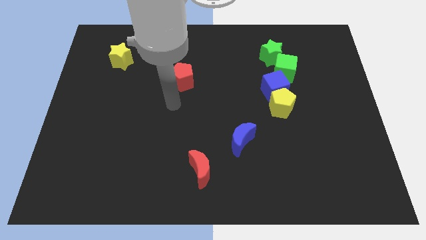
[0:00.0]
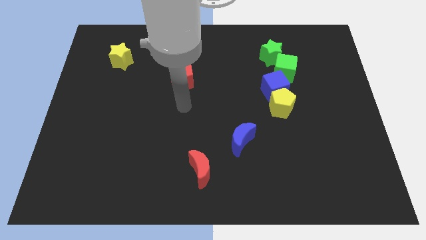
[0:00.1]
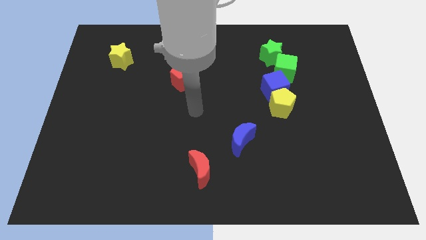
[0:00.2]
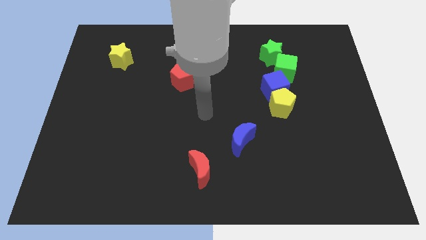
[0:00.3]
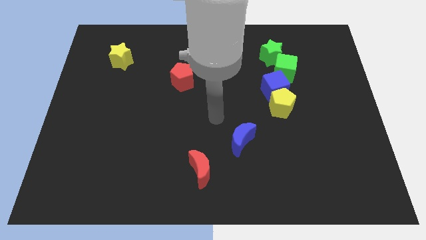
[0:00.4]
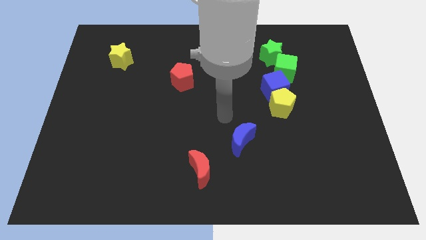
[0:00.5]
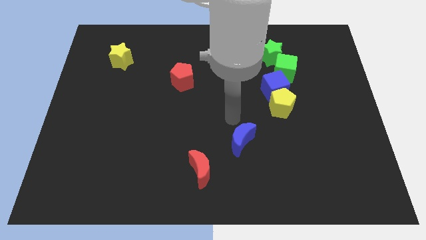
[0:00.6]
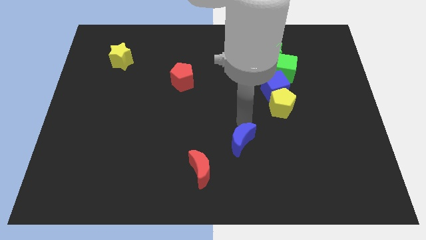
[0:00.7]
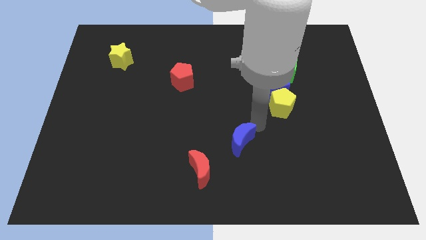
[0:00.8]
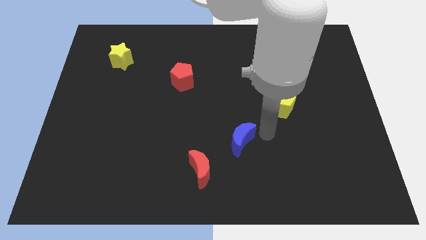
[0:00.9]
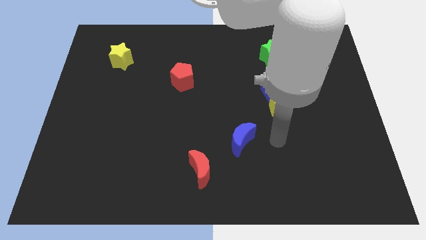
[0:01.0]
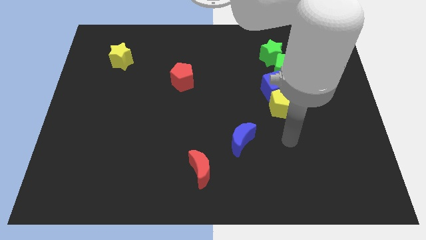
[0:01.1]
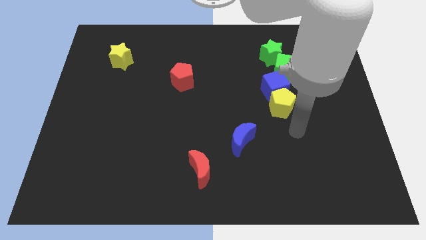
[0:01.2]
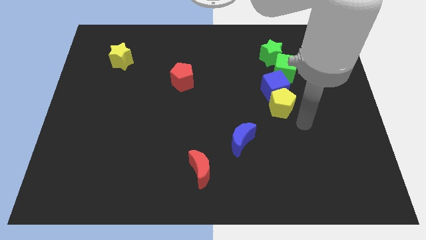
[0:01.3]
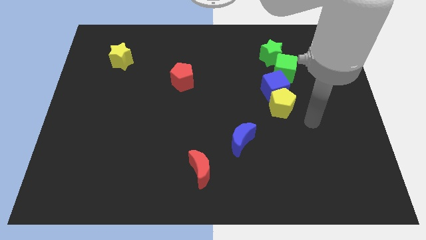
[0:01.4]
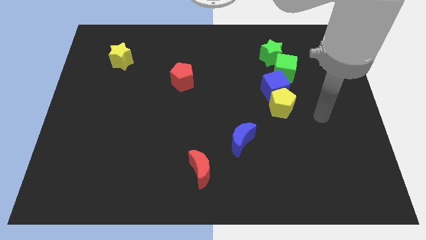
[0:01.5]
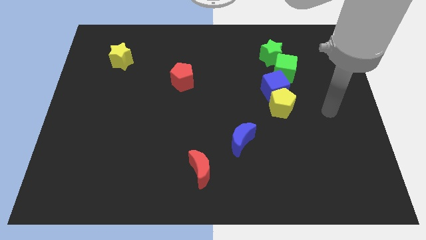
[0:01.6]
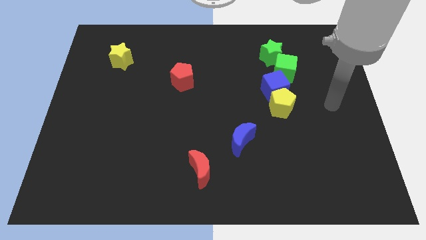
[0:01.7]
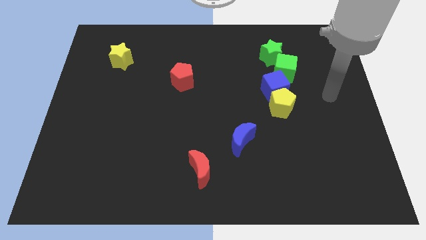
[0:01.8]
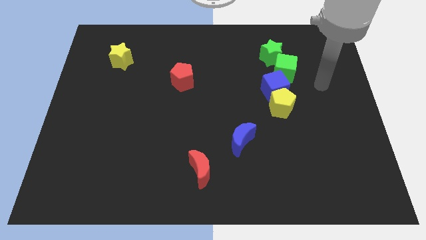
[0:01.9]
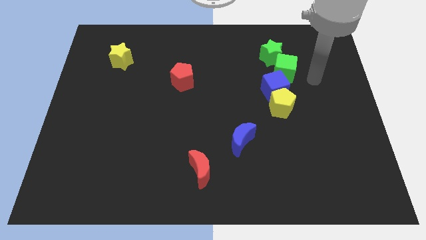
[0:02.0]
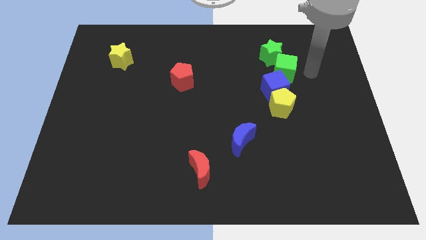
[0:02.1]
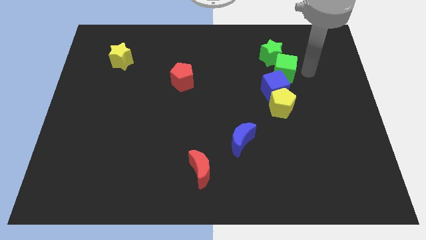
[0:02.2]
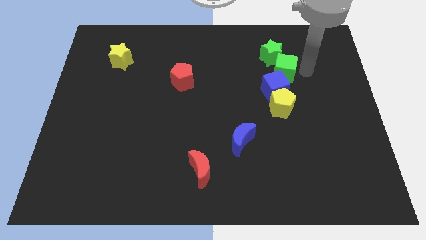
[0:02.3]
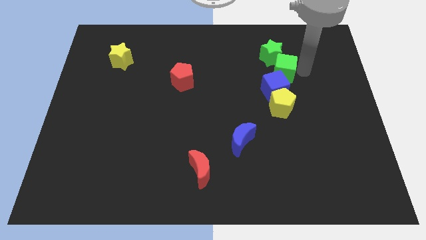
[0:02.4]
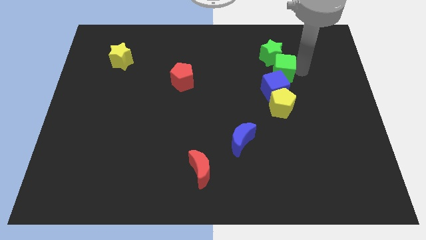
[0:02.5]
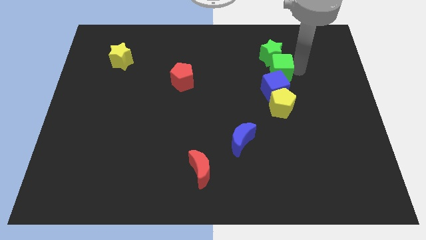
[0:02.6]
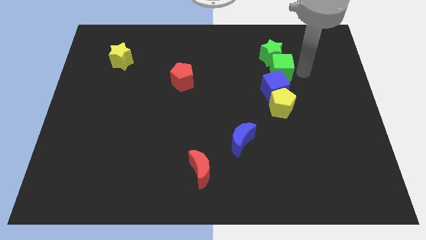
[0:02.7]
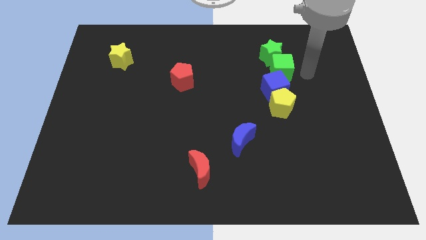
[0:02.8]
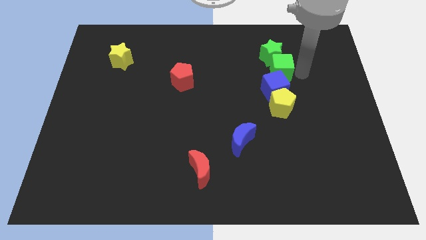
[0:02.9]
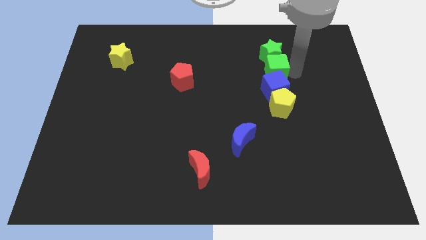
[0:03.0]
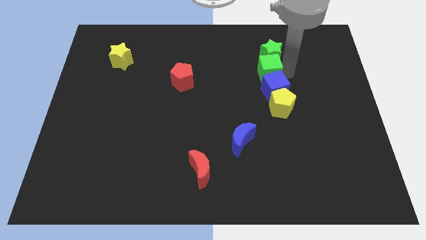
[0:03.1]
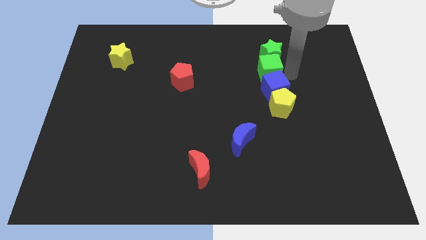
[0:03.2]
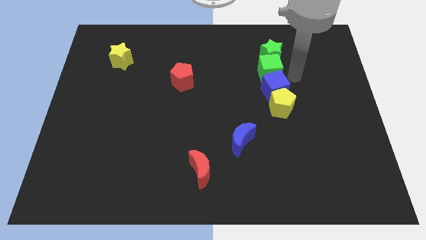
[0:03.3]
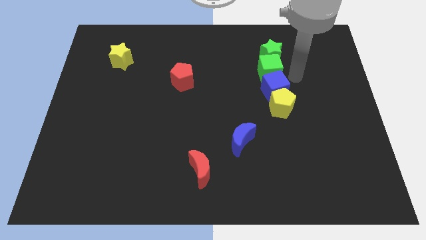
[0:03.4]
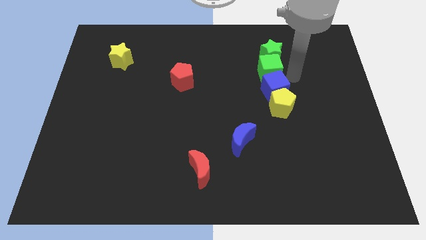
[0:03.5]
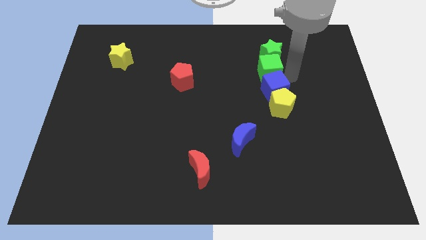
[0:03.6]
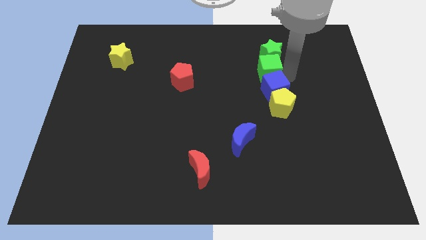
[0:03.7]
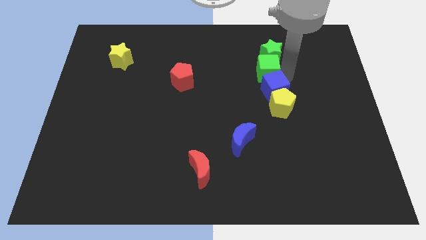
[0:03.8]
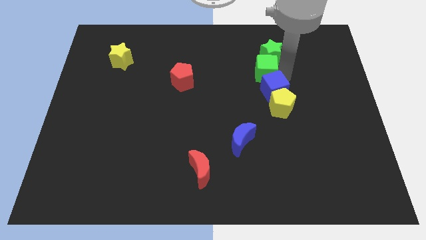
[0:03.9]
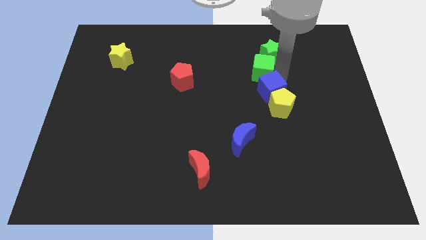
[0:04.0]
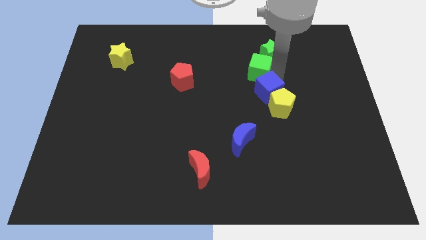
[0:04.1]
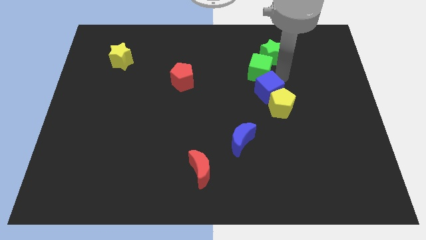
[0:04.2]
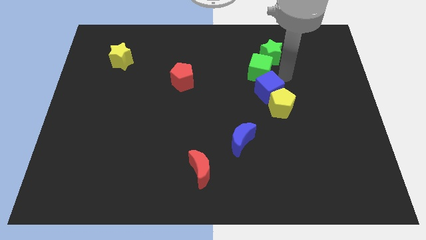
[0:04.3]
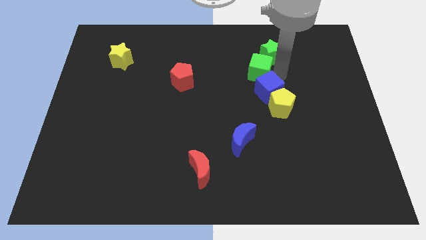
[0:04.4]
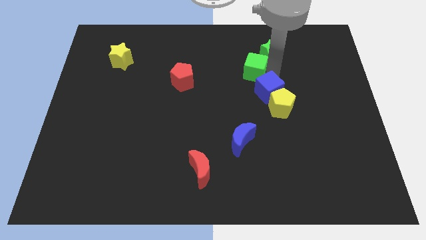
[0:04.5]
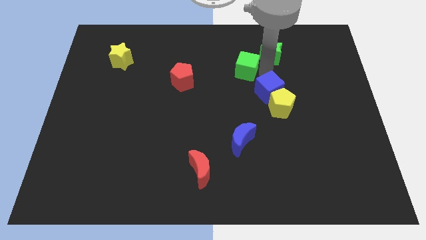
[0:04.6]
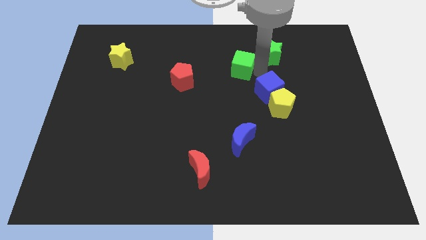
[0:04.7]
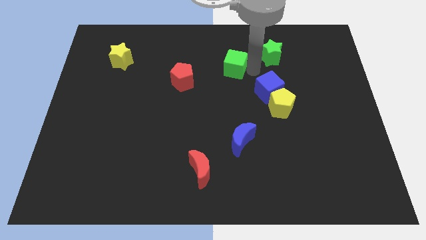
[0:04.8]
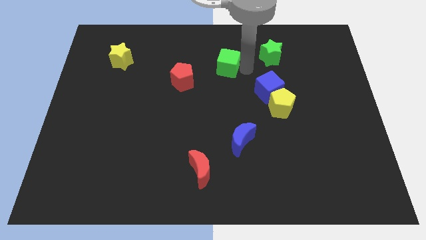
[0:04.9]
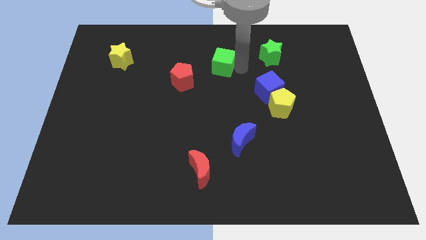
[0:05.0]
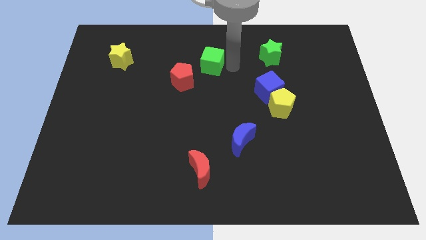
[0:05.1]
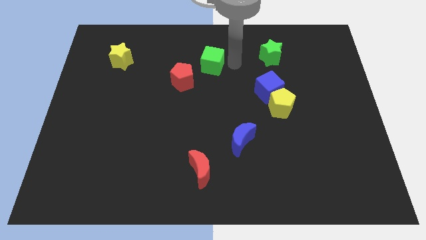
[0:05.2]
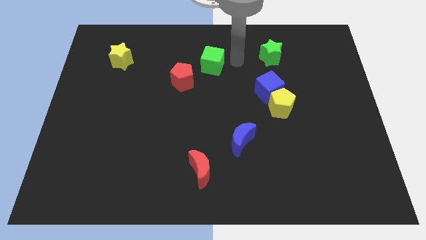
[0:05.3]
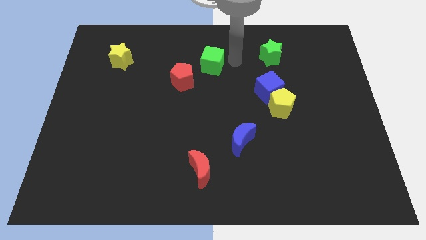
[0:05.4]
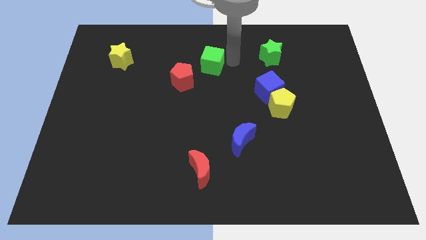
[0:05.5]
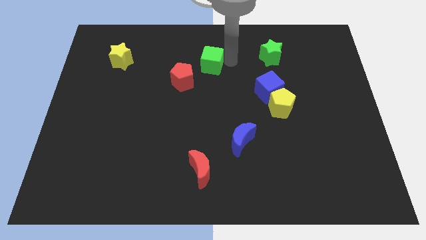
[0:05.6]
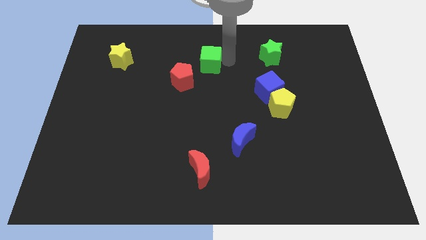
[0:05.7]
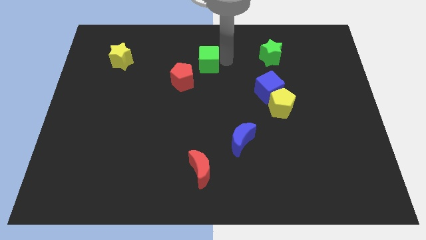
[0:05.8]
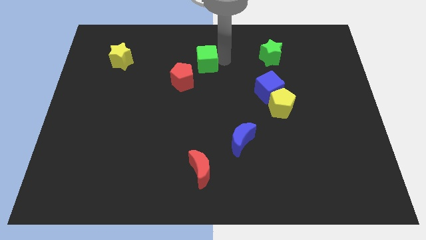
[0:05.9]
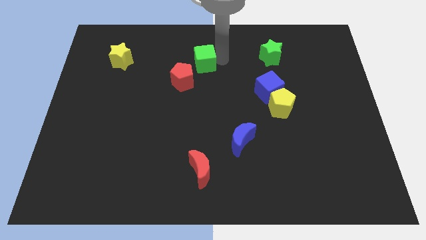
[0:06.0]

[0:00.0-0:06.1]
push the green cube left

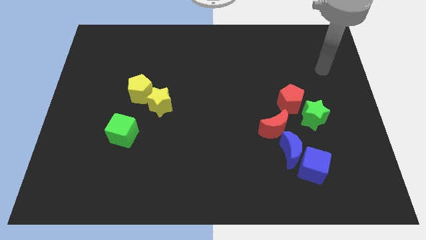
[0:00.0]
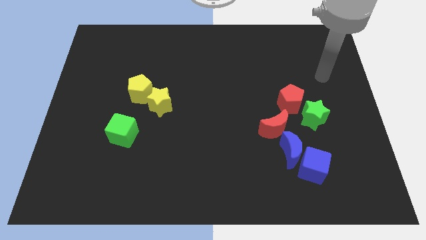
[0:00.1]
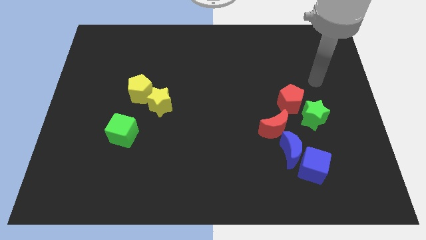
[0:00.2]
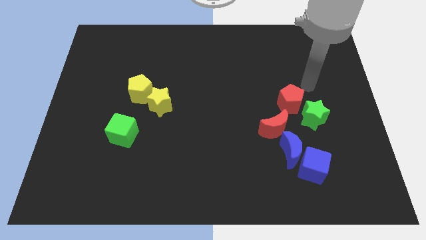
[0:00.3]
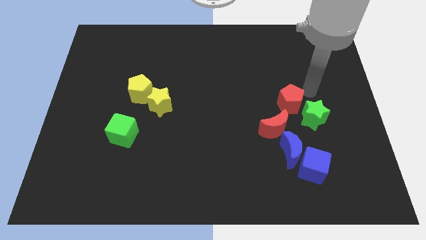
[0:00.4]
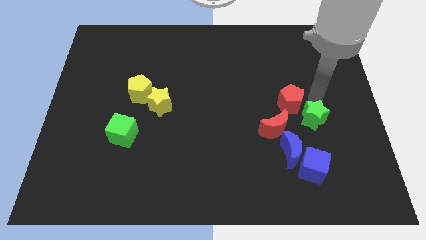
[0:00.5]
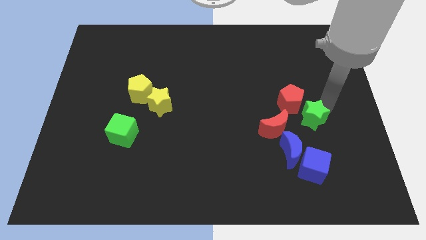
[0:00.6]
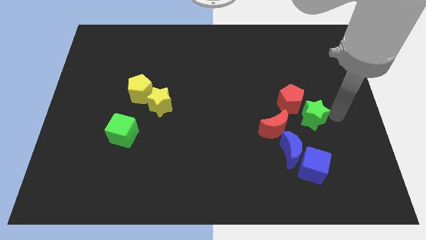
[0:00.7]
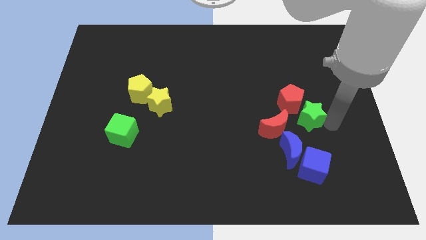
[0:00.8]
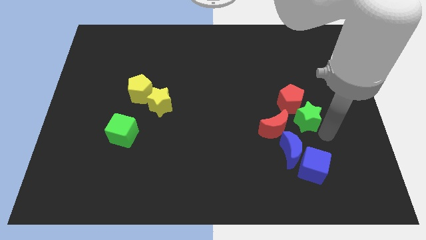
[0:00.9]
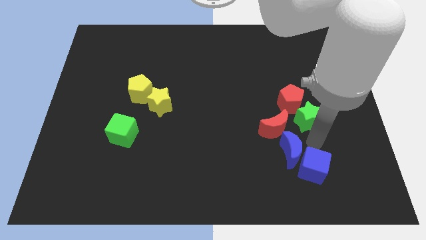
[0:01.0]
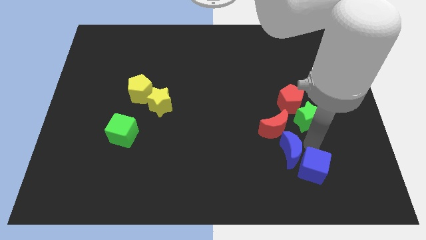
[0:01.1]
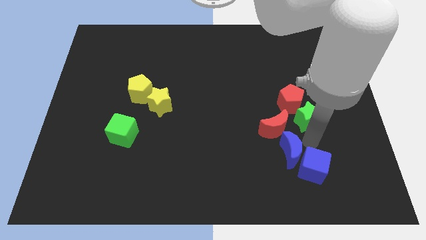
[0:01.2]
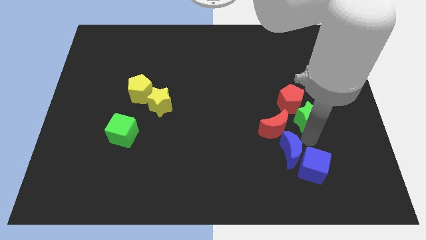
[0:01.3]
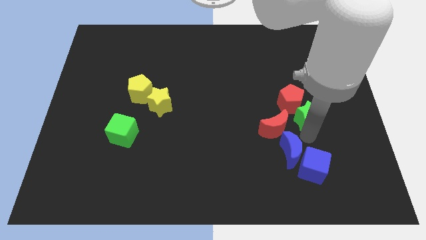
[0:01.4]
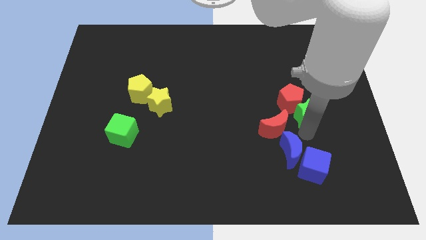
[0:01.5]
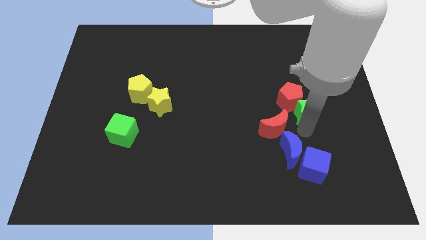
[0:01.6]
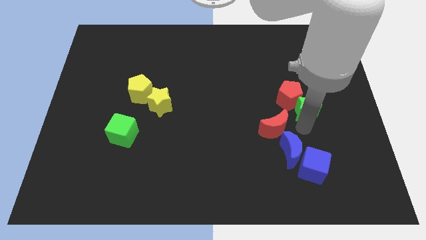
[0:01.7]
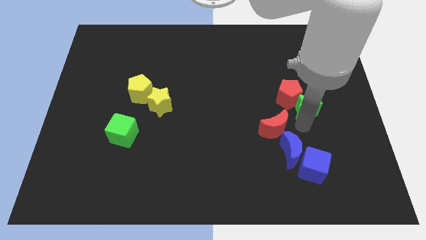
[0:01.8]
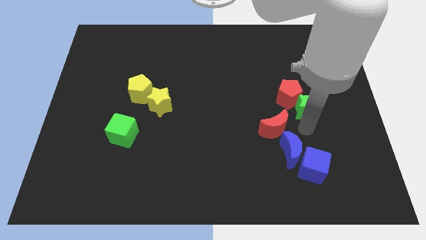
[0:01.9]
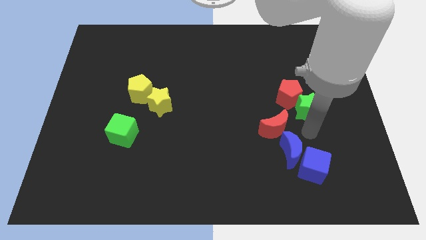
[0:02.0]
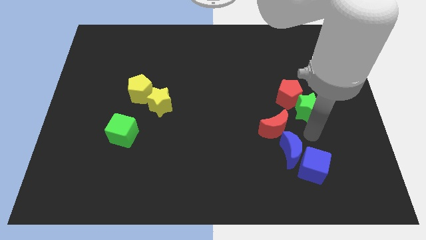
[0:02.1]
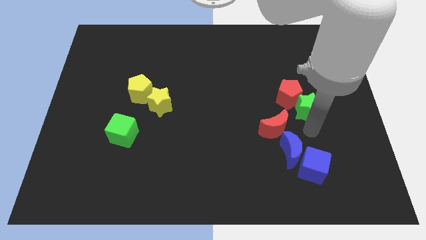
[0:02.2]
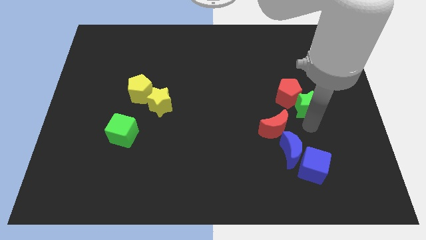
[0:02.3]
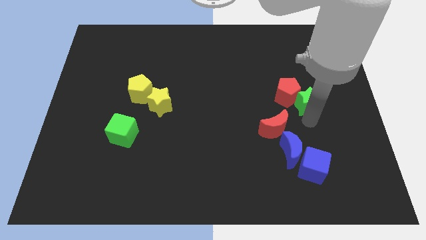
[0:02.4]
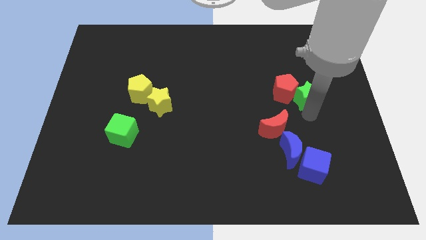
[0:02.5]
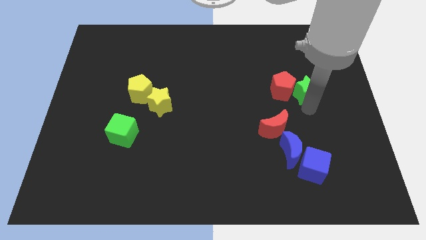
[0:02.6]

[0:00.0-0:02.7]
slightly push the green star up
